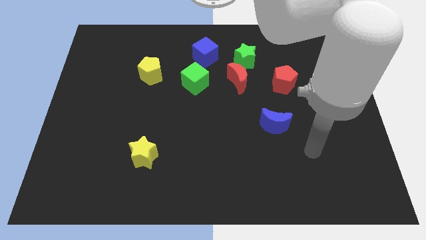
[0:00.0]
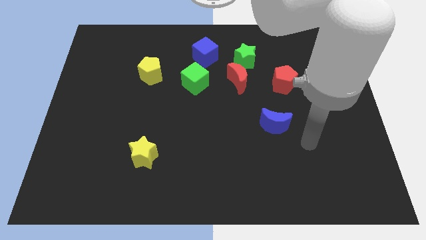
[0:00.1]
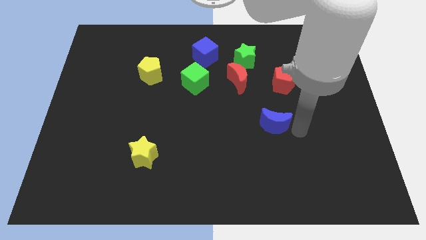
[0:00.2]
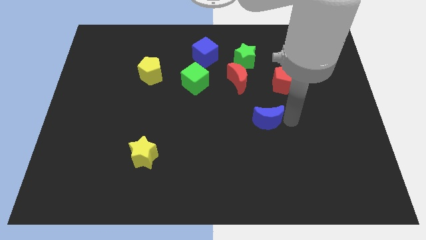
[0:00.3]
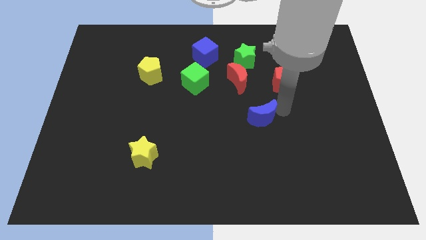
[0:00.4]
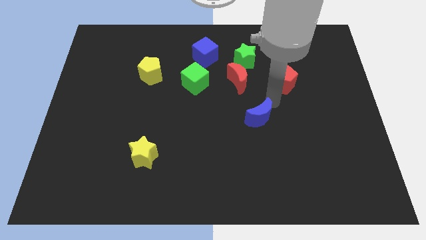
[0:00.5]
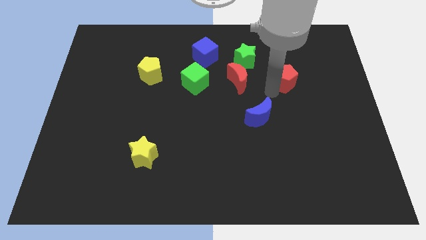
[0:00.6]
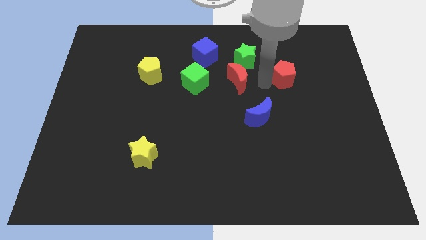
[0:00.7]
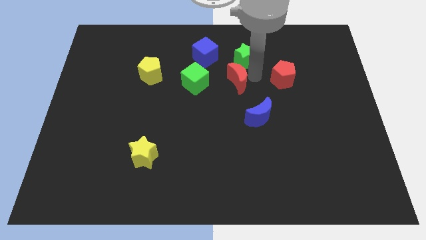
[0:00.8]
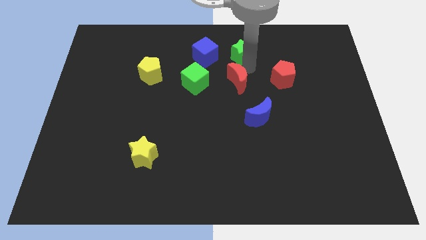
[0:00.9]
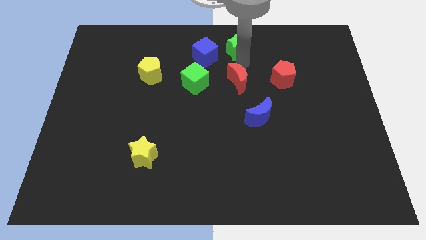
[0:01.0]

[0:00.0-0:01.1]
move the red moon away from the green star

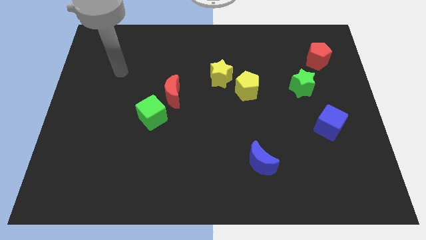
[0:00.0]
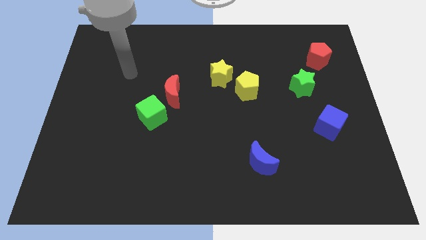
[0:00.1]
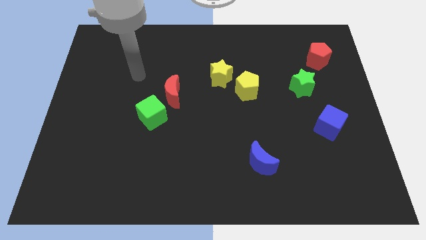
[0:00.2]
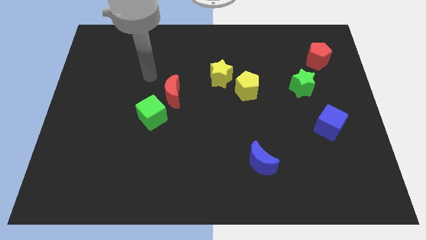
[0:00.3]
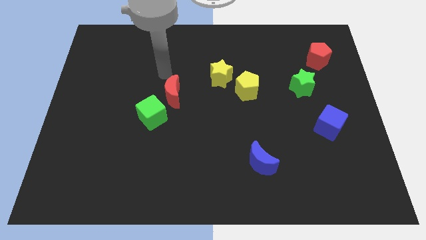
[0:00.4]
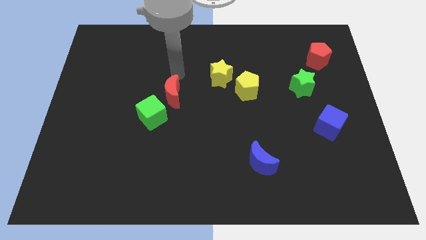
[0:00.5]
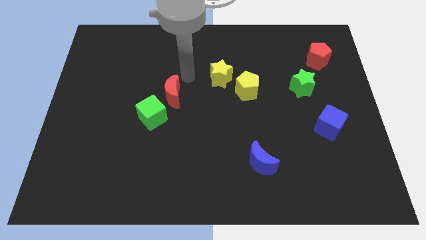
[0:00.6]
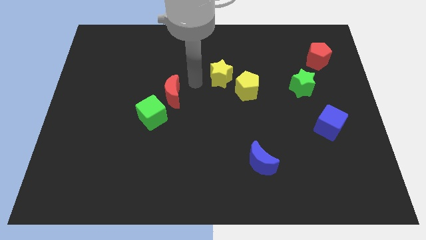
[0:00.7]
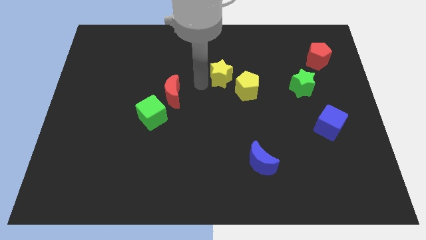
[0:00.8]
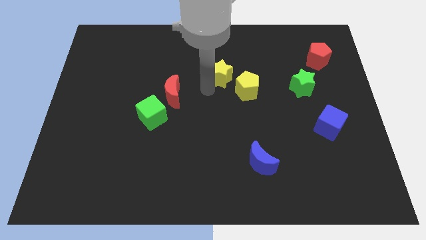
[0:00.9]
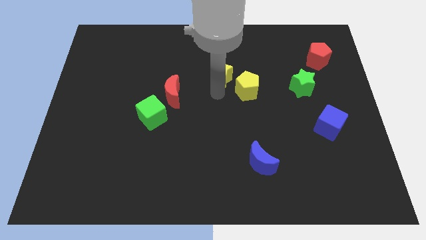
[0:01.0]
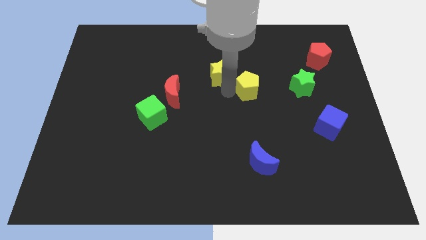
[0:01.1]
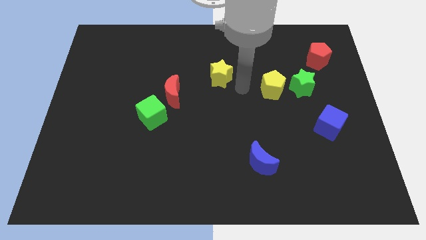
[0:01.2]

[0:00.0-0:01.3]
move the yellow star away from the yellow pentagon

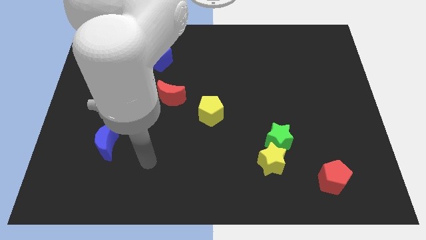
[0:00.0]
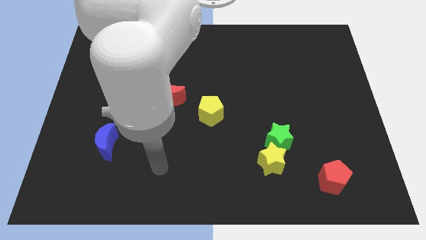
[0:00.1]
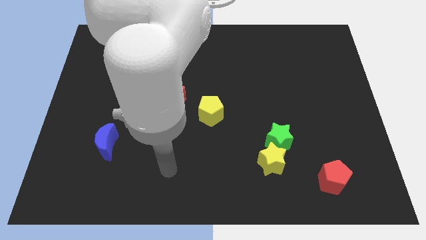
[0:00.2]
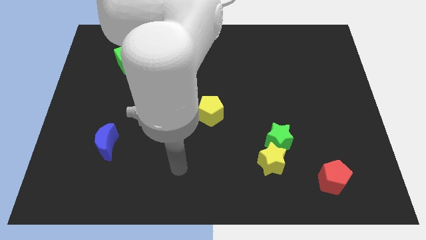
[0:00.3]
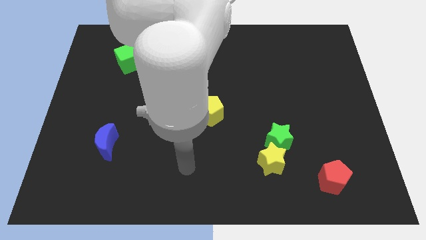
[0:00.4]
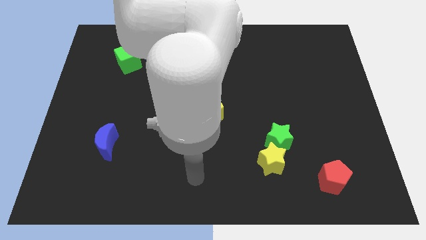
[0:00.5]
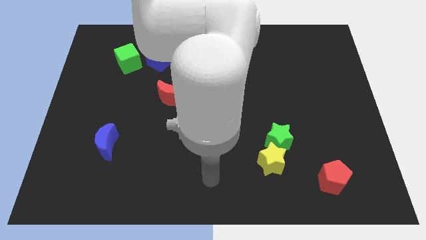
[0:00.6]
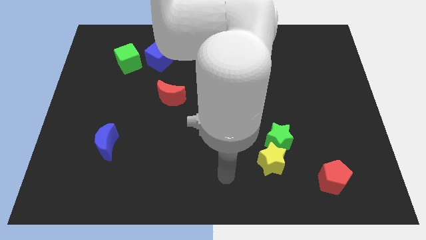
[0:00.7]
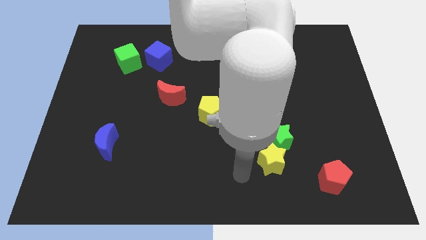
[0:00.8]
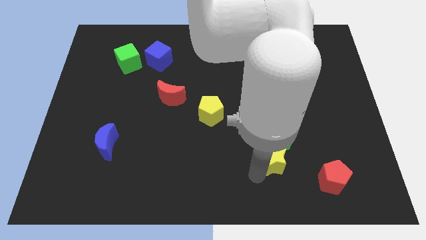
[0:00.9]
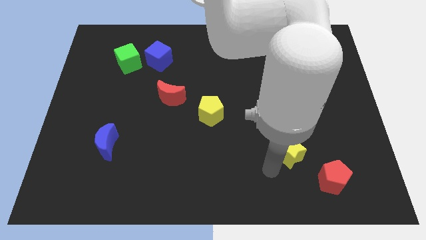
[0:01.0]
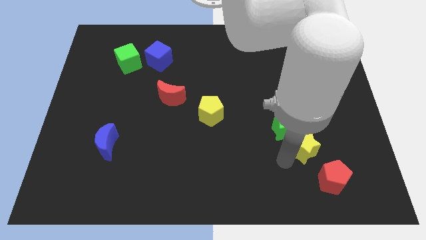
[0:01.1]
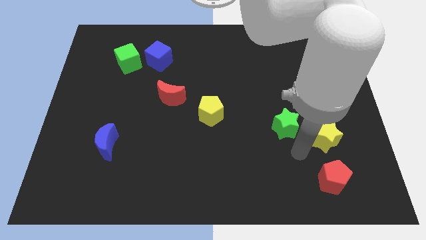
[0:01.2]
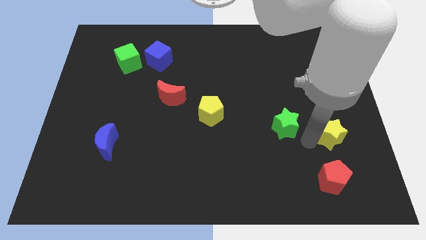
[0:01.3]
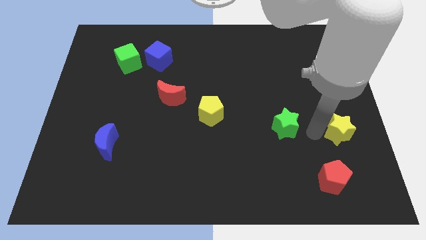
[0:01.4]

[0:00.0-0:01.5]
pull the green star apart from the yellow star

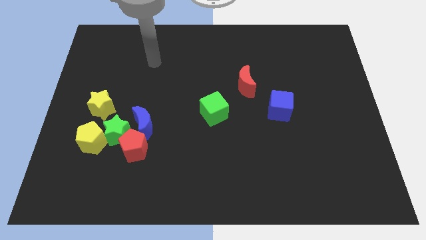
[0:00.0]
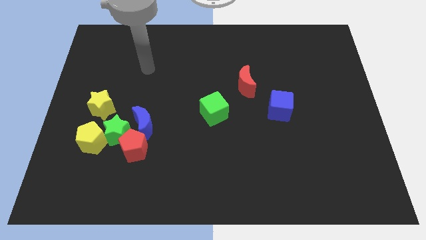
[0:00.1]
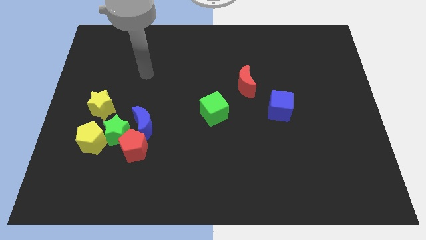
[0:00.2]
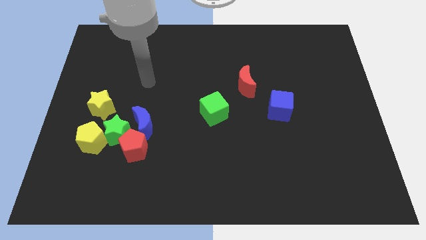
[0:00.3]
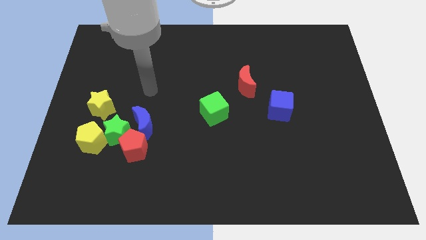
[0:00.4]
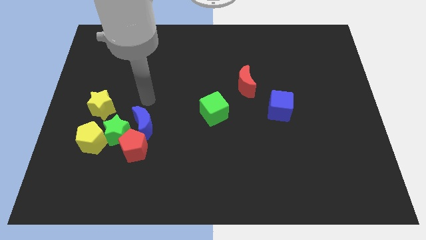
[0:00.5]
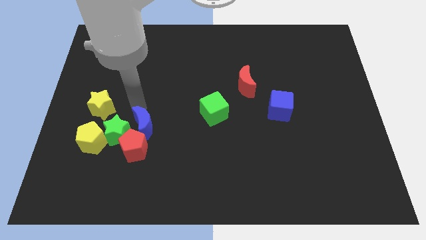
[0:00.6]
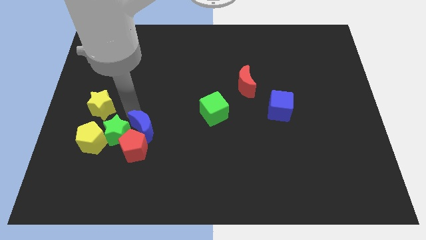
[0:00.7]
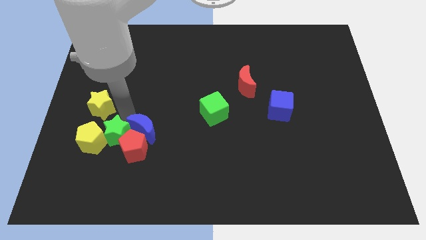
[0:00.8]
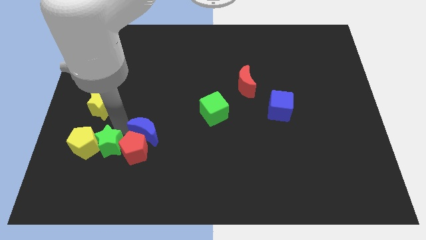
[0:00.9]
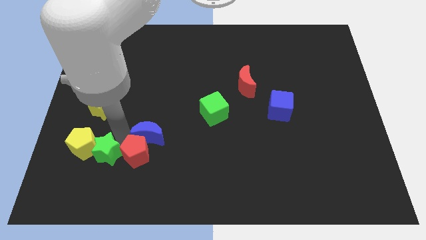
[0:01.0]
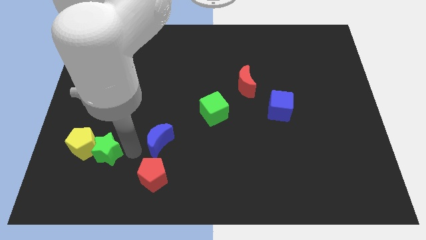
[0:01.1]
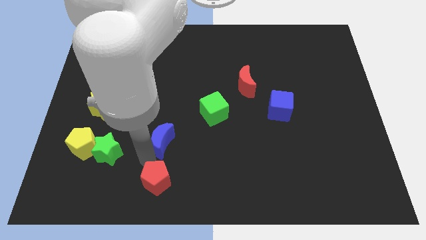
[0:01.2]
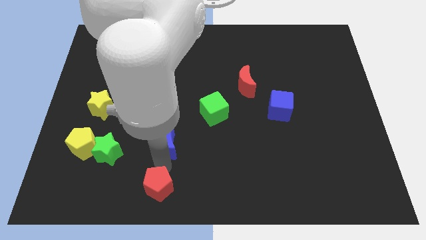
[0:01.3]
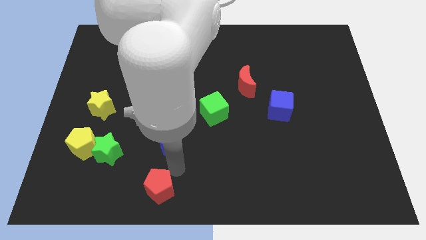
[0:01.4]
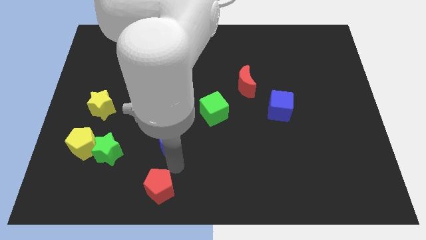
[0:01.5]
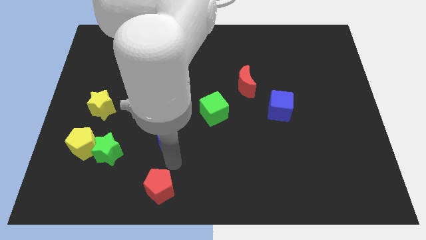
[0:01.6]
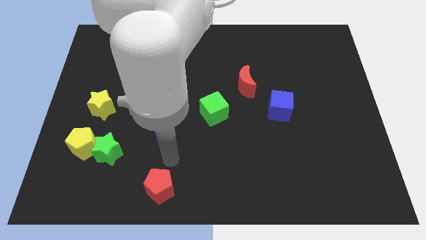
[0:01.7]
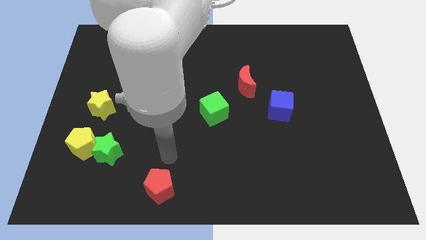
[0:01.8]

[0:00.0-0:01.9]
move the blue moon away from the red pentagon and green star

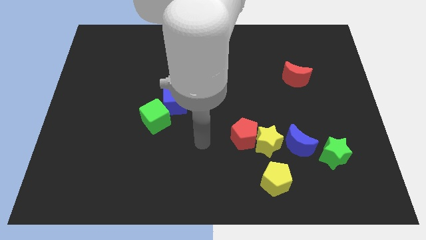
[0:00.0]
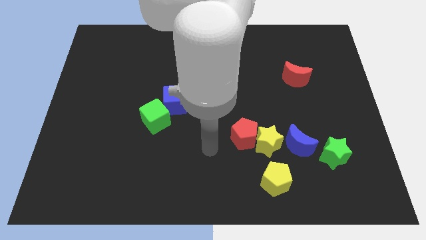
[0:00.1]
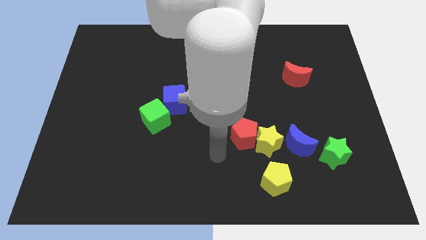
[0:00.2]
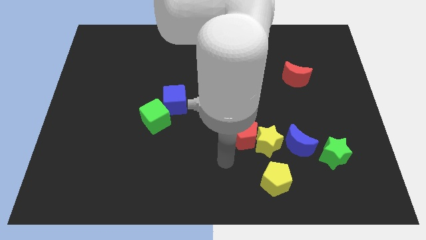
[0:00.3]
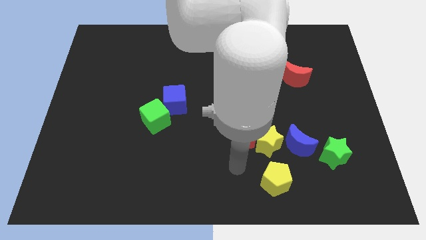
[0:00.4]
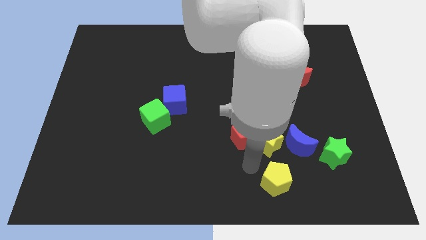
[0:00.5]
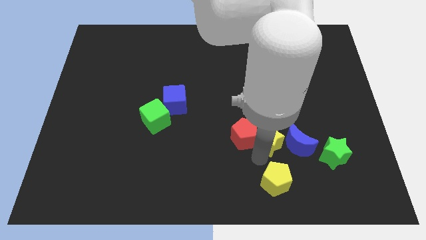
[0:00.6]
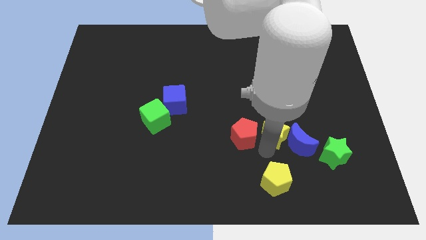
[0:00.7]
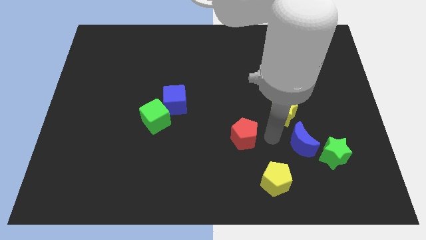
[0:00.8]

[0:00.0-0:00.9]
pull the red pentagon apart from the yellow star

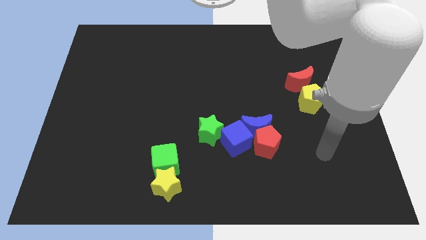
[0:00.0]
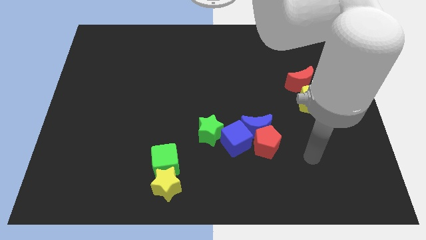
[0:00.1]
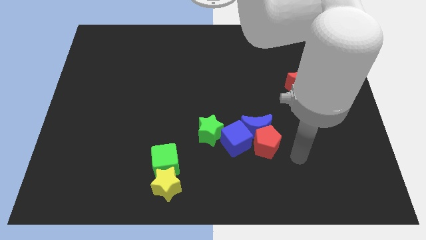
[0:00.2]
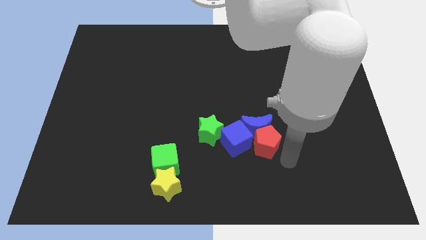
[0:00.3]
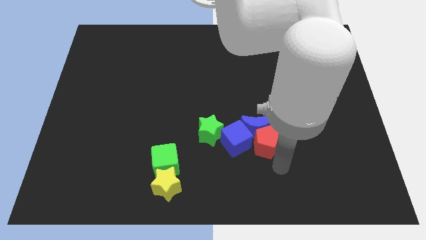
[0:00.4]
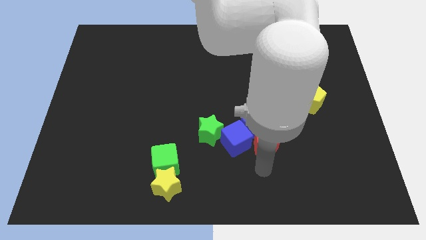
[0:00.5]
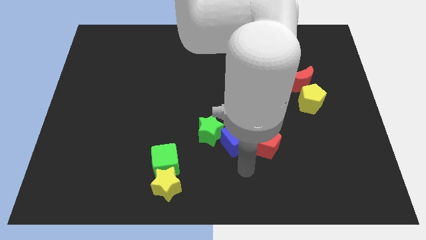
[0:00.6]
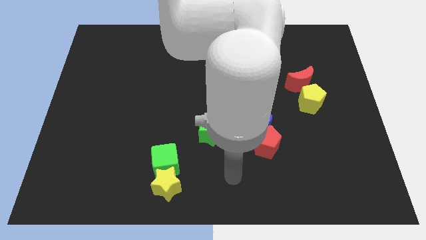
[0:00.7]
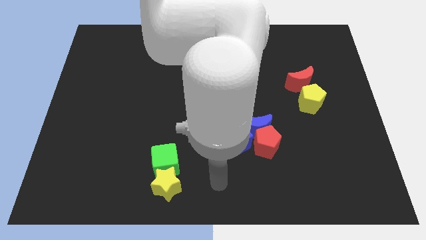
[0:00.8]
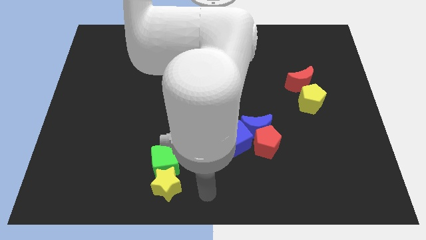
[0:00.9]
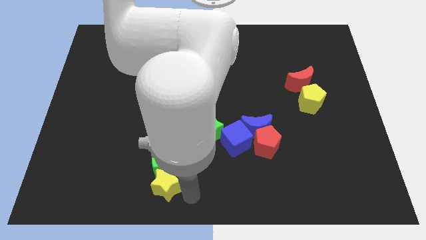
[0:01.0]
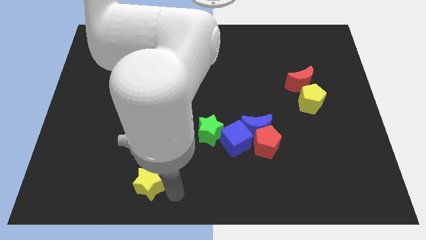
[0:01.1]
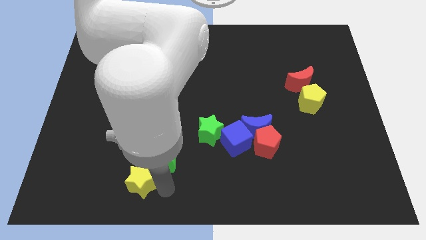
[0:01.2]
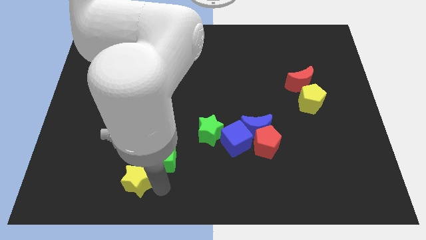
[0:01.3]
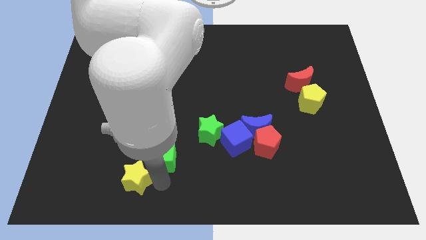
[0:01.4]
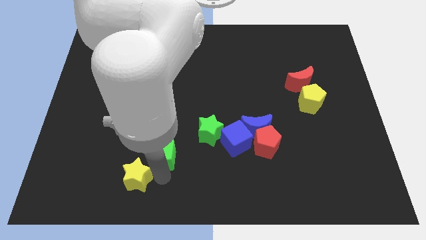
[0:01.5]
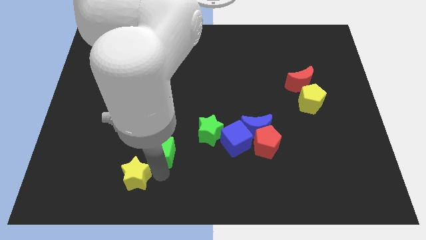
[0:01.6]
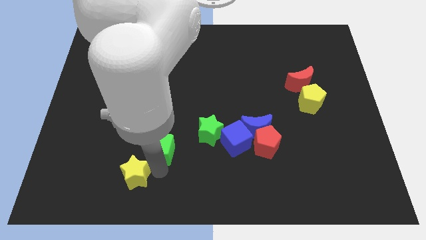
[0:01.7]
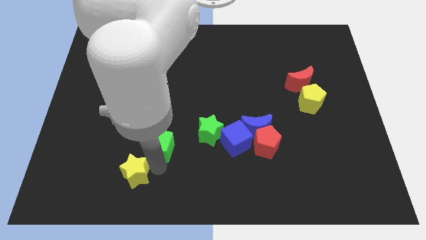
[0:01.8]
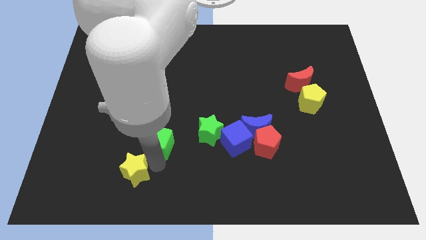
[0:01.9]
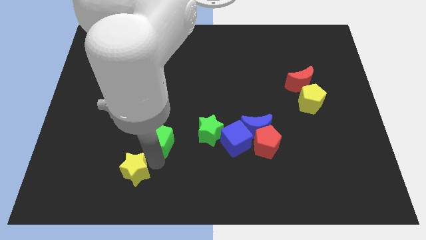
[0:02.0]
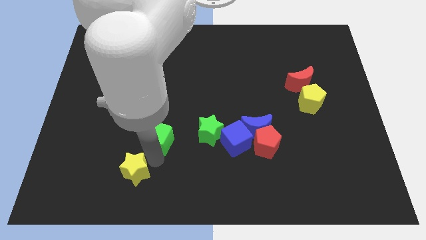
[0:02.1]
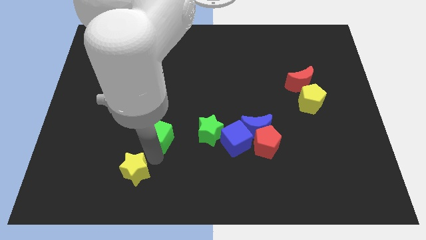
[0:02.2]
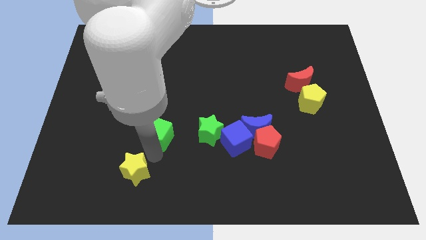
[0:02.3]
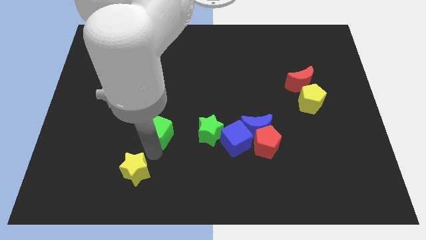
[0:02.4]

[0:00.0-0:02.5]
pull the green cube apart from the yellow star
